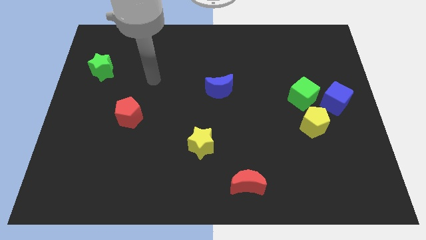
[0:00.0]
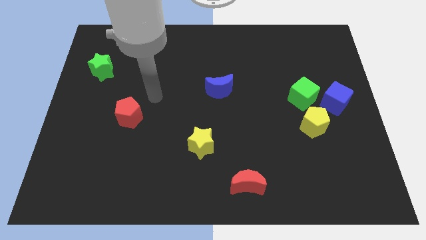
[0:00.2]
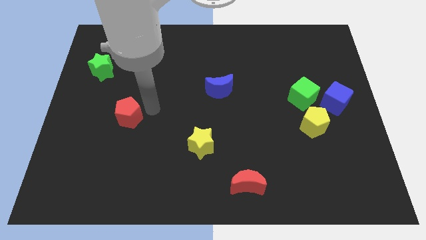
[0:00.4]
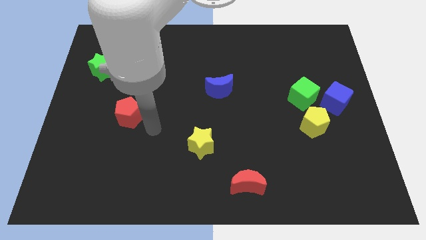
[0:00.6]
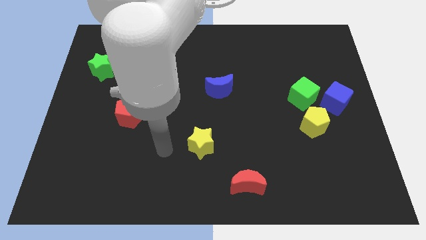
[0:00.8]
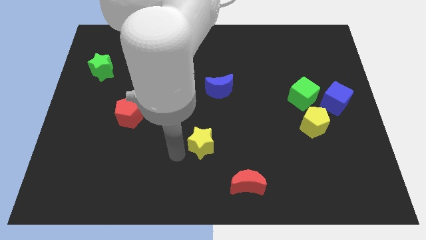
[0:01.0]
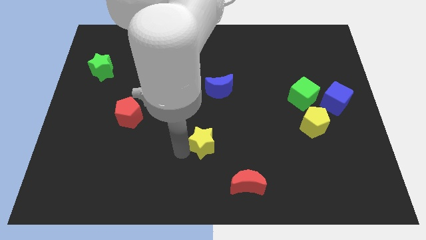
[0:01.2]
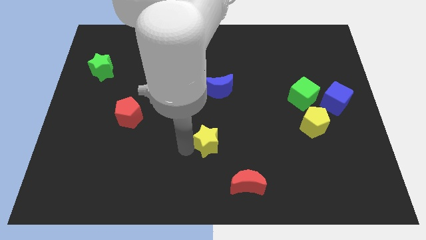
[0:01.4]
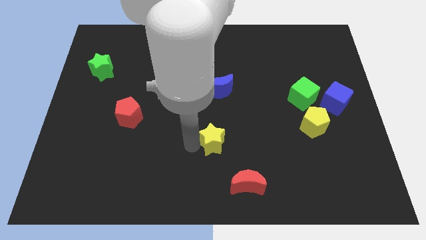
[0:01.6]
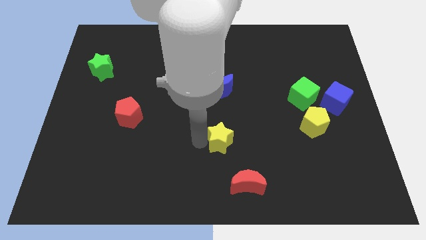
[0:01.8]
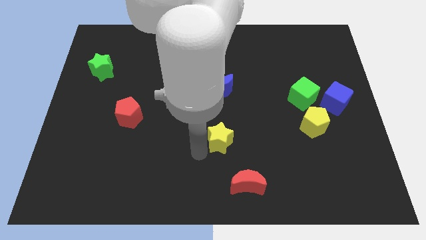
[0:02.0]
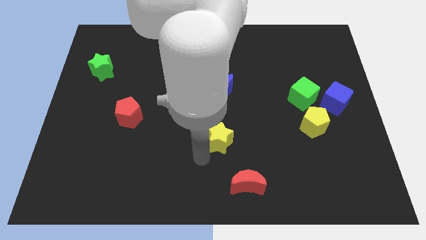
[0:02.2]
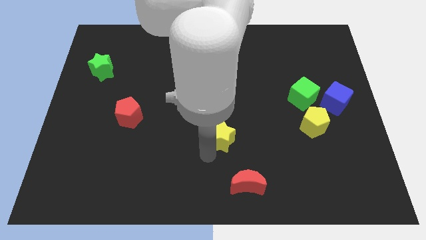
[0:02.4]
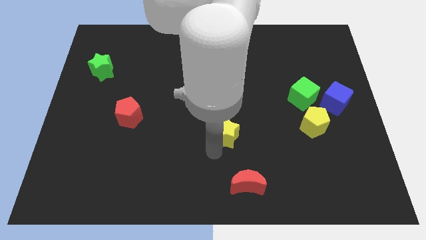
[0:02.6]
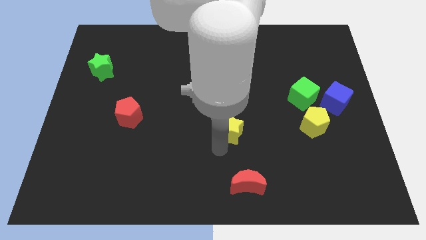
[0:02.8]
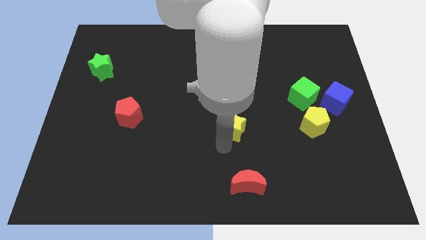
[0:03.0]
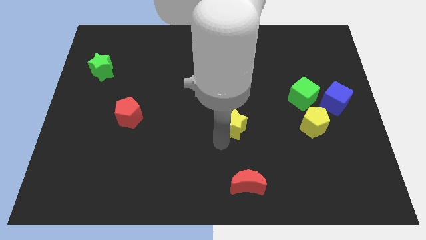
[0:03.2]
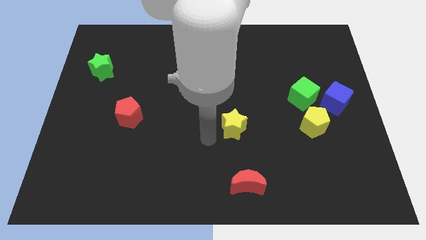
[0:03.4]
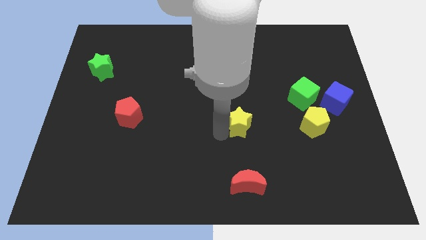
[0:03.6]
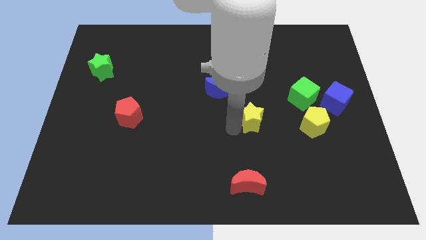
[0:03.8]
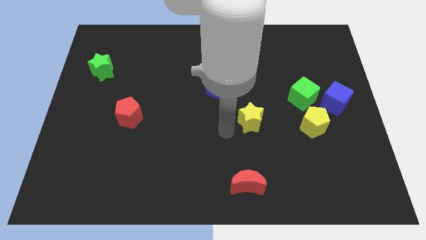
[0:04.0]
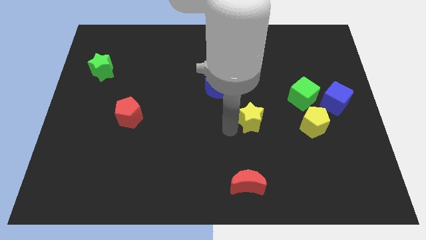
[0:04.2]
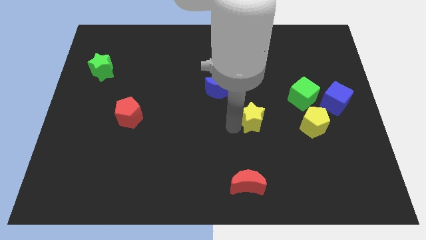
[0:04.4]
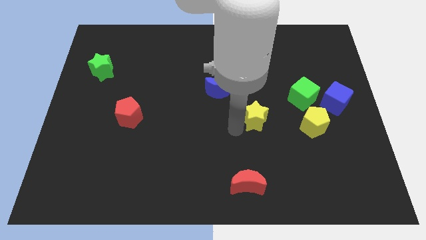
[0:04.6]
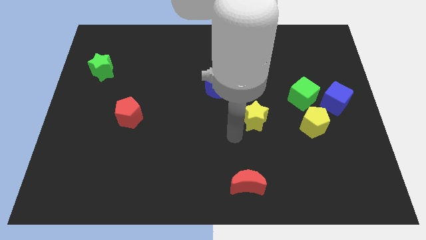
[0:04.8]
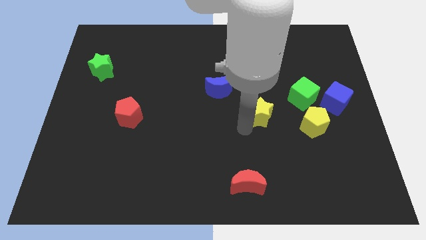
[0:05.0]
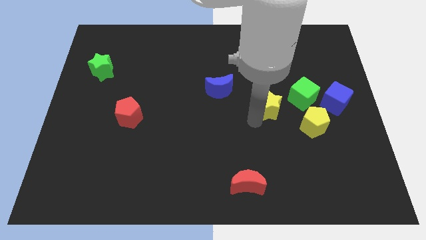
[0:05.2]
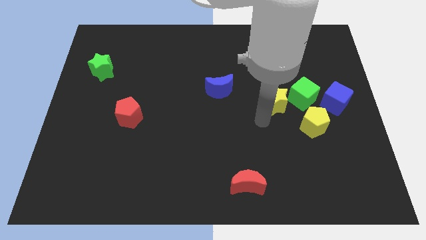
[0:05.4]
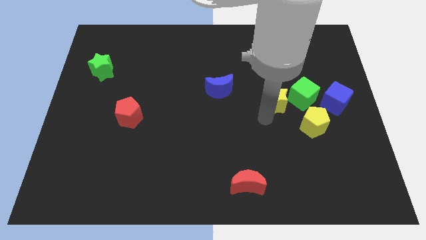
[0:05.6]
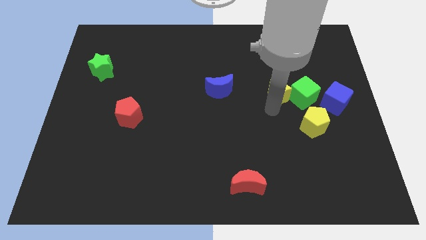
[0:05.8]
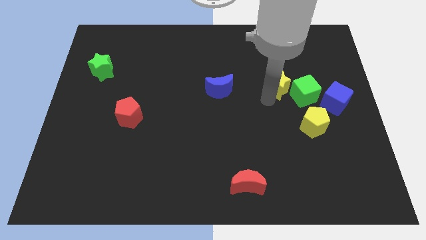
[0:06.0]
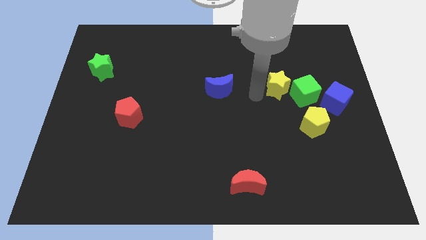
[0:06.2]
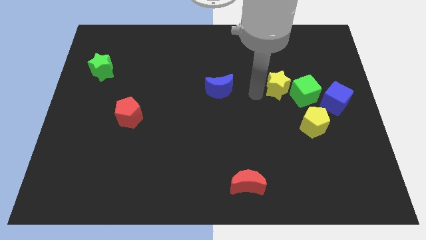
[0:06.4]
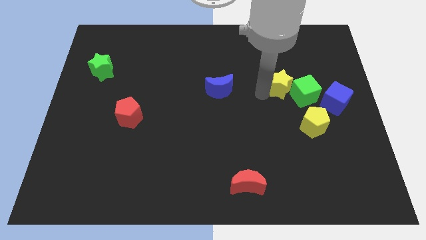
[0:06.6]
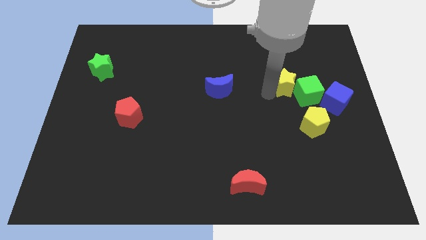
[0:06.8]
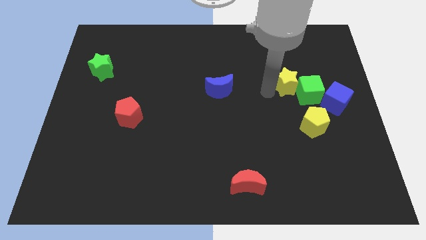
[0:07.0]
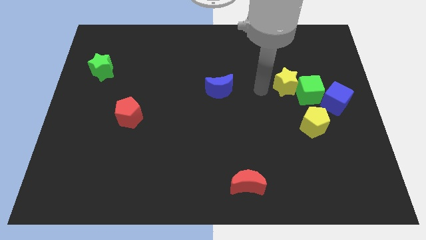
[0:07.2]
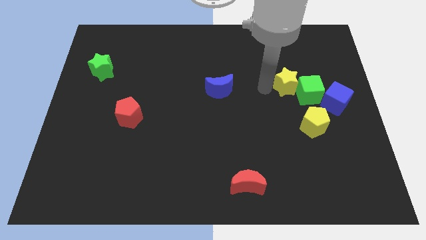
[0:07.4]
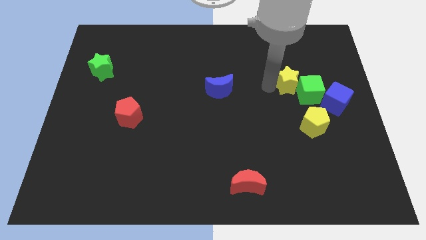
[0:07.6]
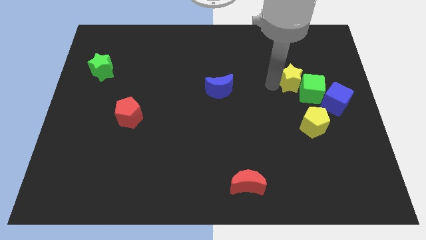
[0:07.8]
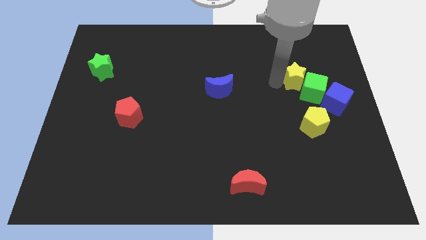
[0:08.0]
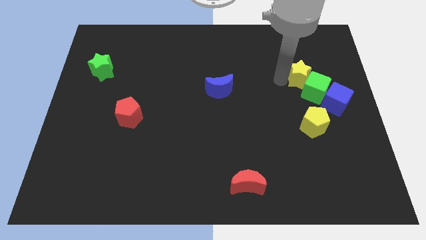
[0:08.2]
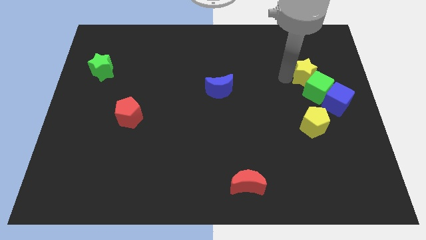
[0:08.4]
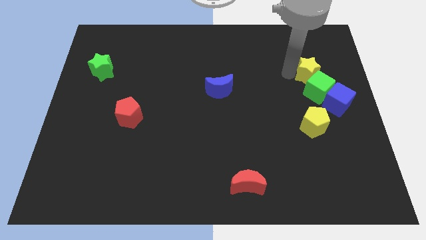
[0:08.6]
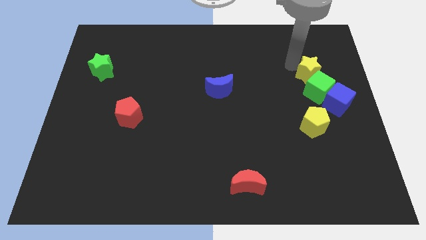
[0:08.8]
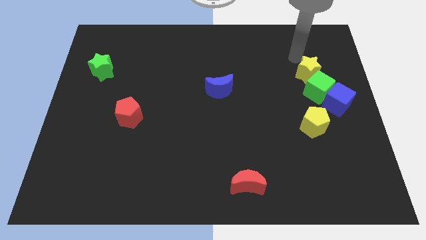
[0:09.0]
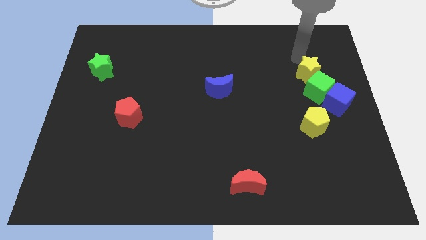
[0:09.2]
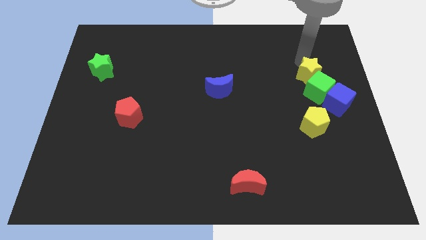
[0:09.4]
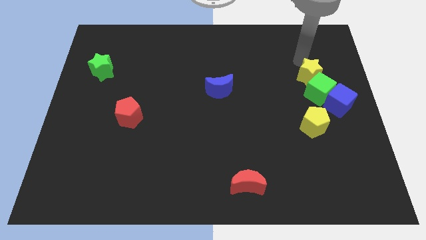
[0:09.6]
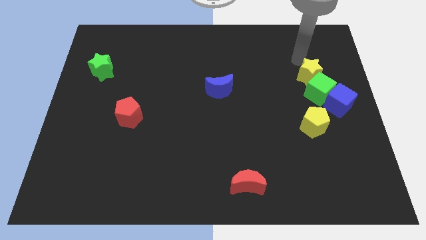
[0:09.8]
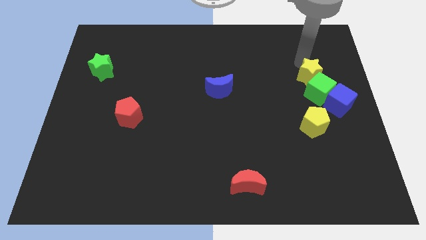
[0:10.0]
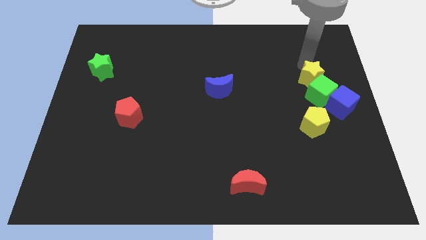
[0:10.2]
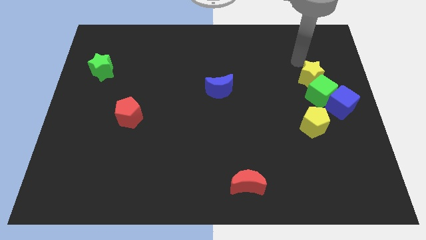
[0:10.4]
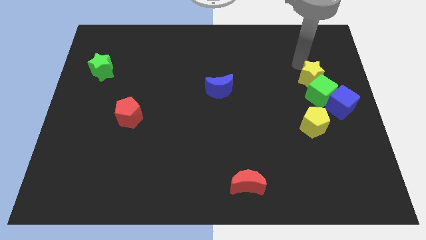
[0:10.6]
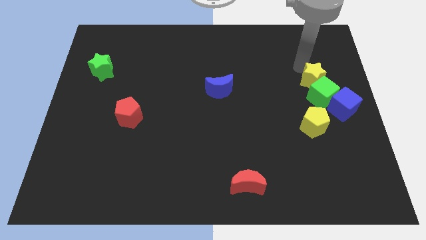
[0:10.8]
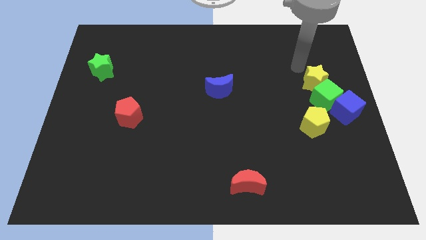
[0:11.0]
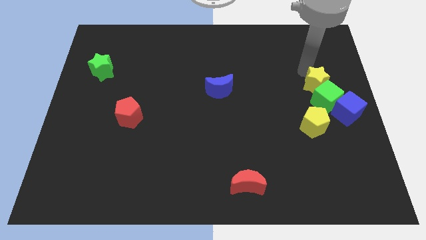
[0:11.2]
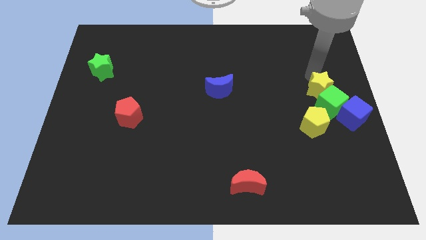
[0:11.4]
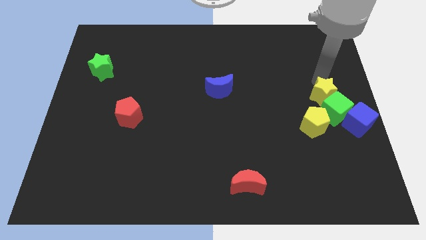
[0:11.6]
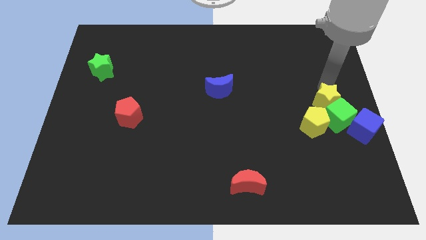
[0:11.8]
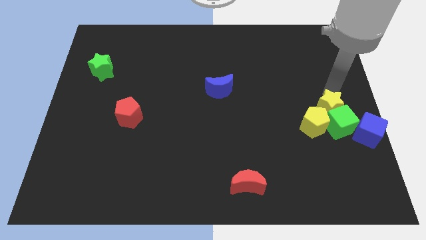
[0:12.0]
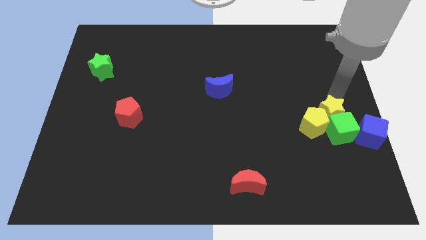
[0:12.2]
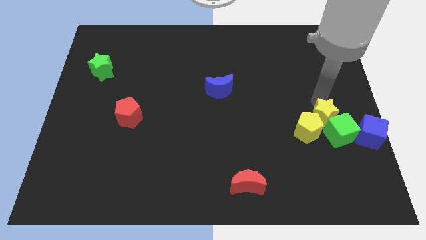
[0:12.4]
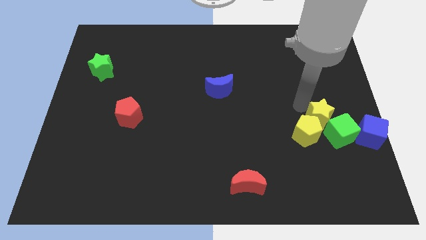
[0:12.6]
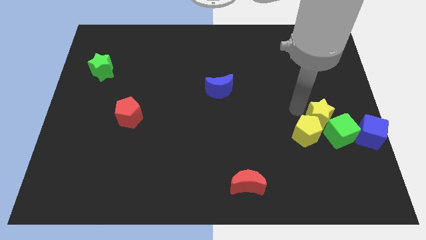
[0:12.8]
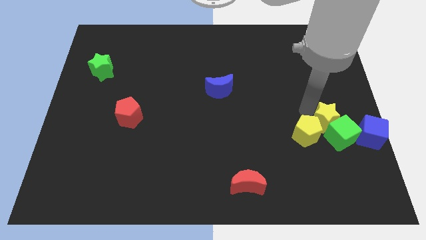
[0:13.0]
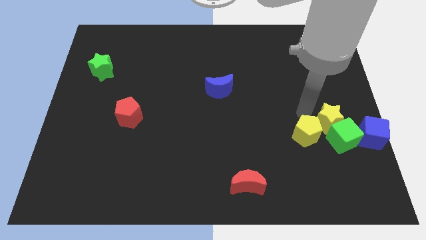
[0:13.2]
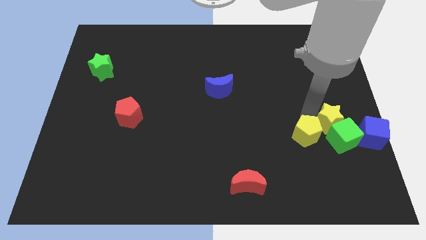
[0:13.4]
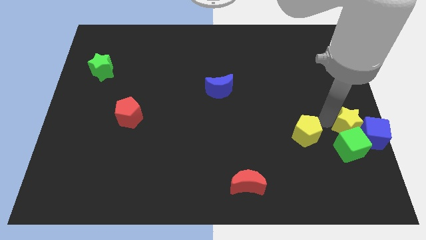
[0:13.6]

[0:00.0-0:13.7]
put the yellow star close to the blue cube

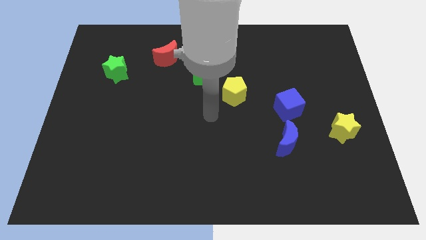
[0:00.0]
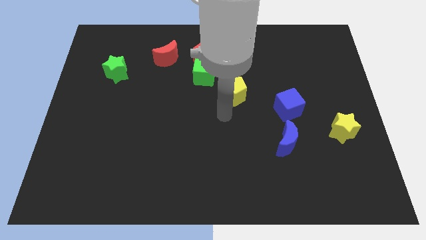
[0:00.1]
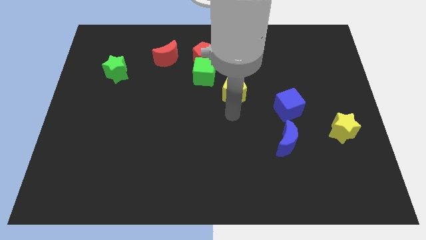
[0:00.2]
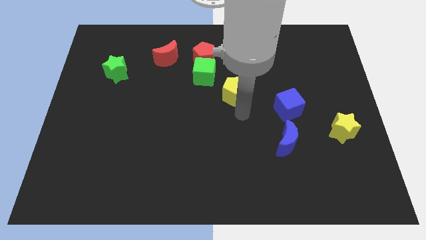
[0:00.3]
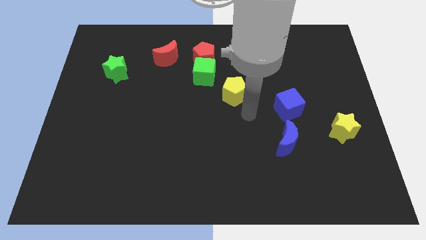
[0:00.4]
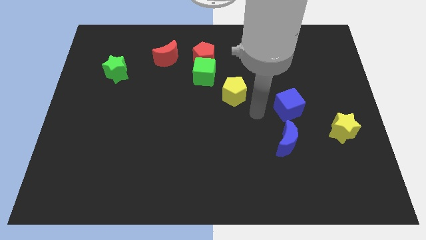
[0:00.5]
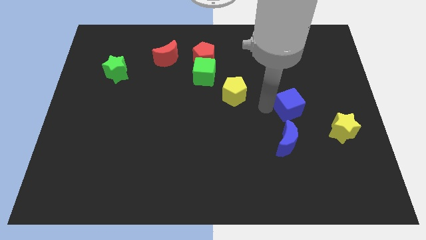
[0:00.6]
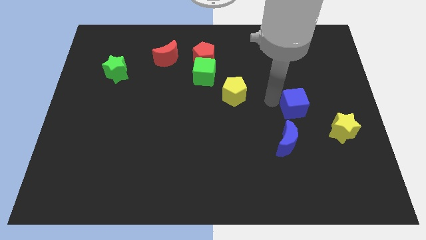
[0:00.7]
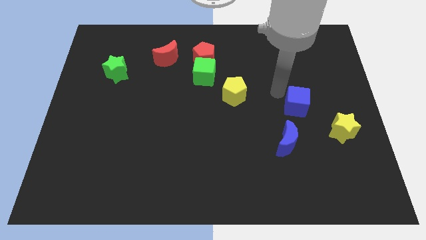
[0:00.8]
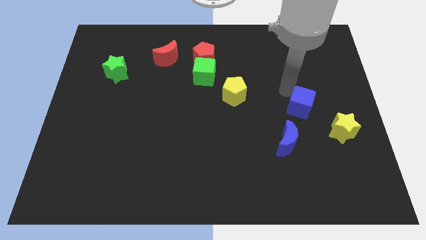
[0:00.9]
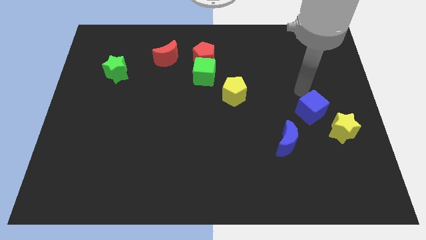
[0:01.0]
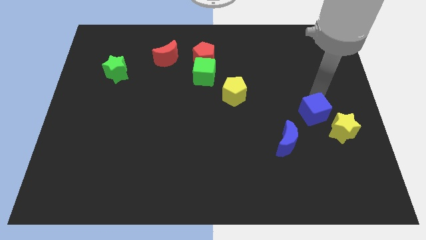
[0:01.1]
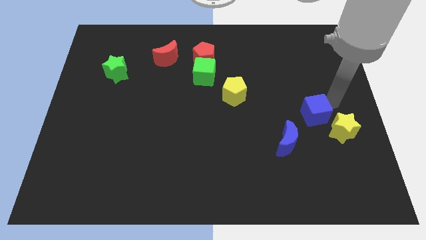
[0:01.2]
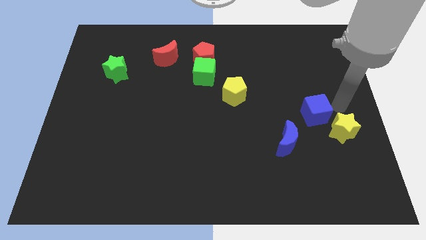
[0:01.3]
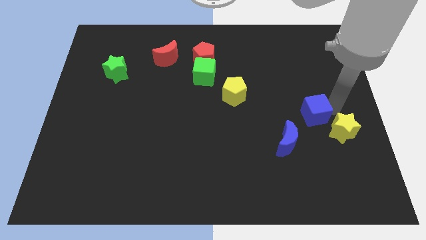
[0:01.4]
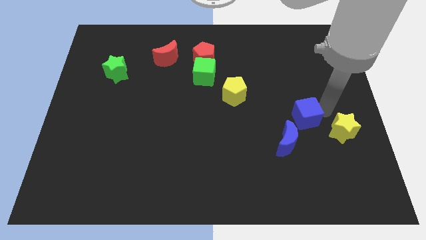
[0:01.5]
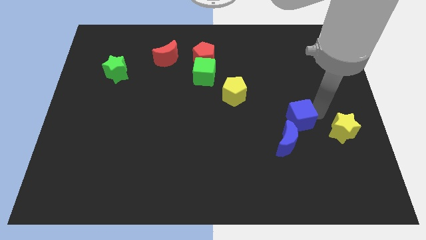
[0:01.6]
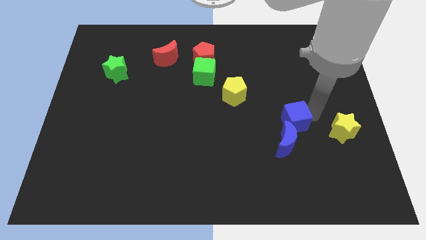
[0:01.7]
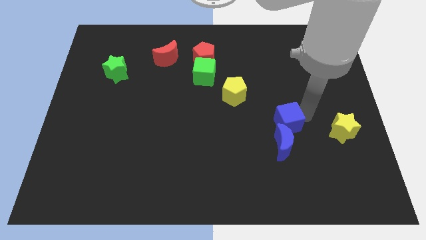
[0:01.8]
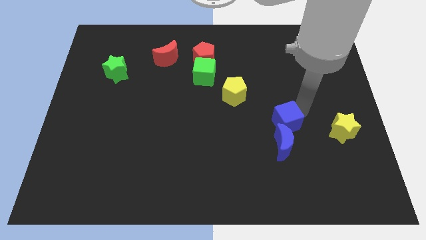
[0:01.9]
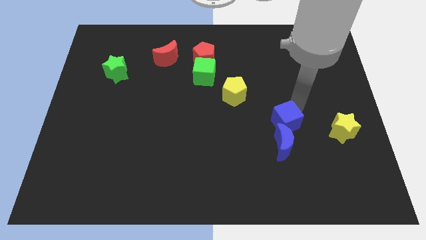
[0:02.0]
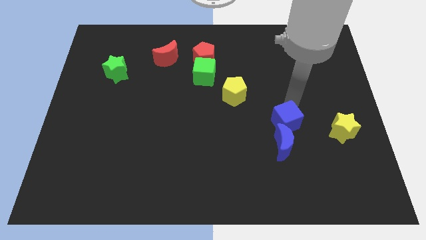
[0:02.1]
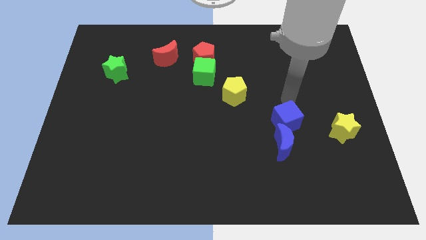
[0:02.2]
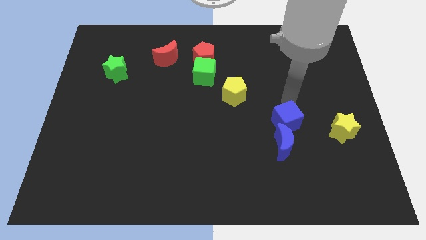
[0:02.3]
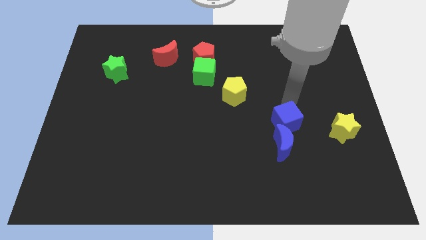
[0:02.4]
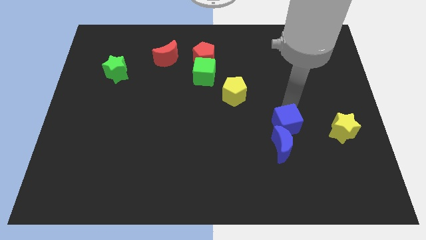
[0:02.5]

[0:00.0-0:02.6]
push the blue cube towards the blue moon
